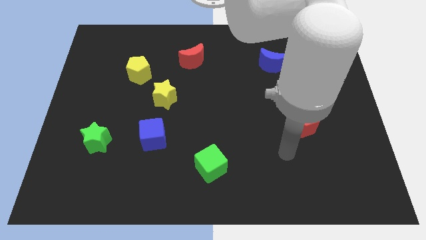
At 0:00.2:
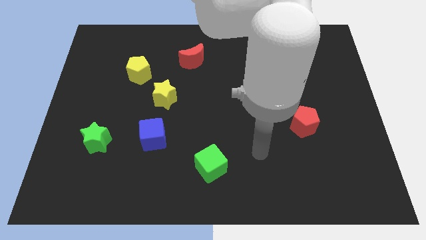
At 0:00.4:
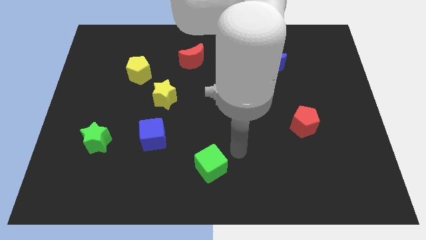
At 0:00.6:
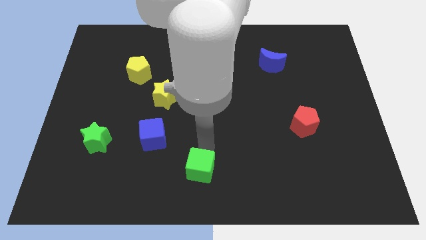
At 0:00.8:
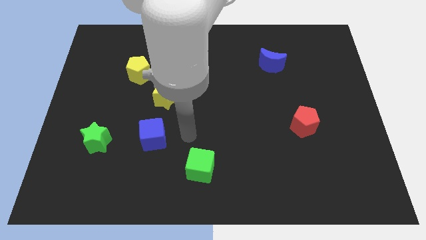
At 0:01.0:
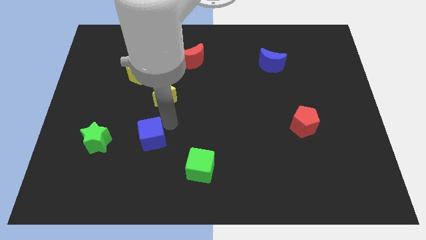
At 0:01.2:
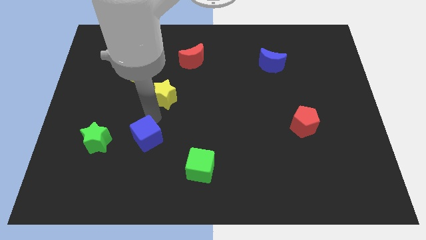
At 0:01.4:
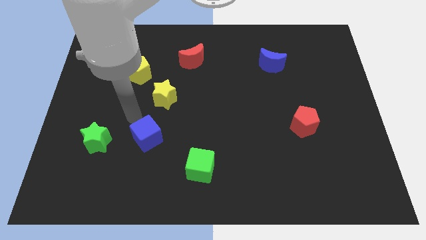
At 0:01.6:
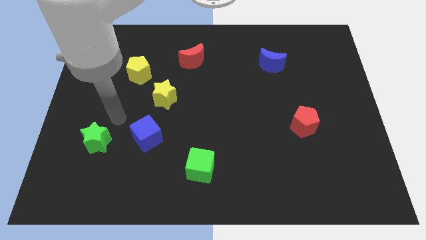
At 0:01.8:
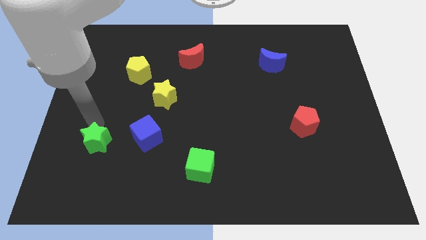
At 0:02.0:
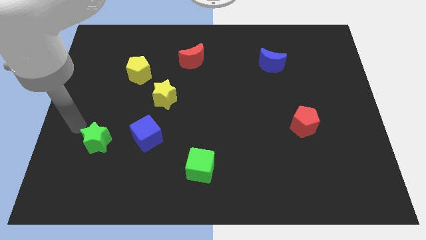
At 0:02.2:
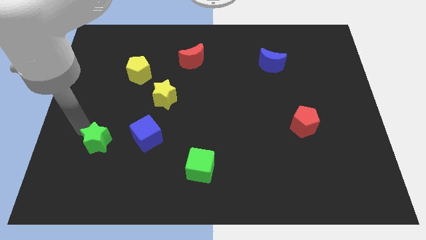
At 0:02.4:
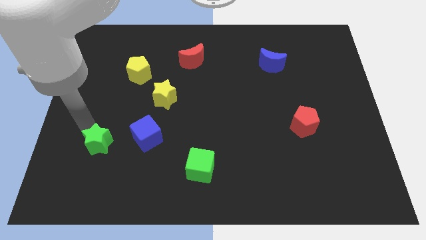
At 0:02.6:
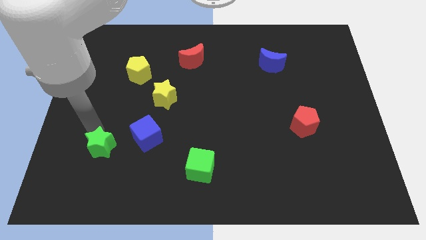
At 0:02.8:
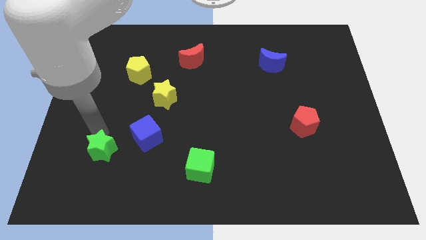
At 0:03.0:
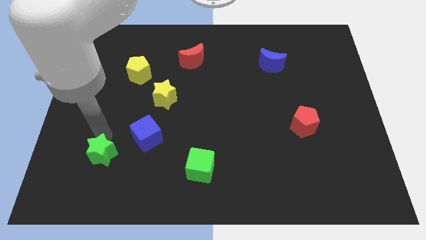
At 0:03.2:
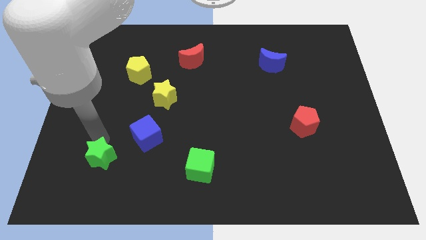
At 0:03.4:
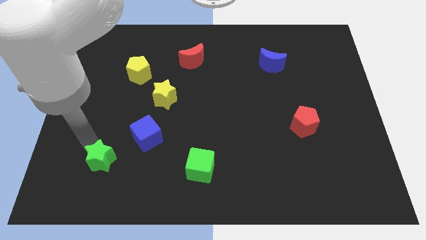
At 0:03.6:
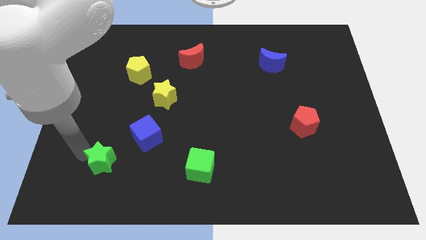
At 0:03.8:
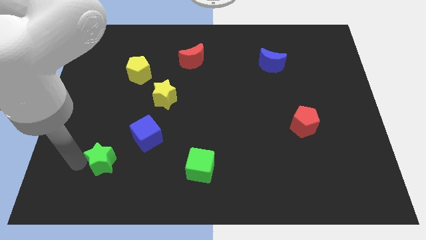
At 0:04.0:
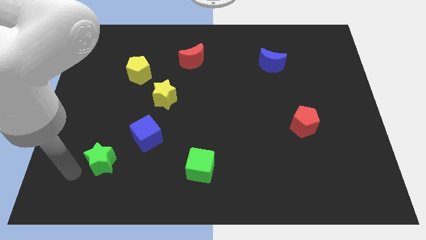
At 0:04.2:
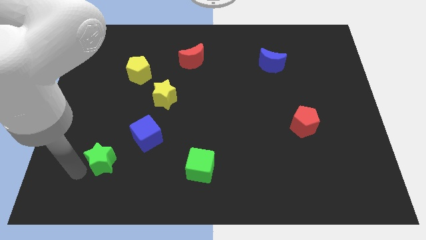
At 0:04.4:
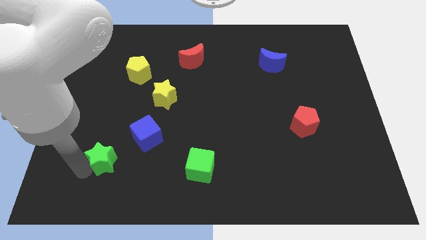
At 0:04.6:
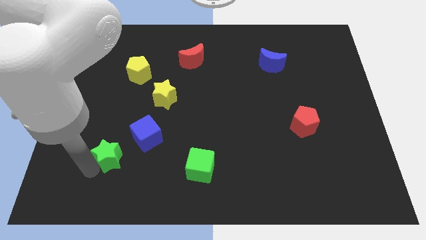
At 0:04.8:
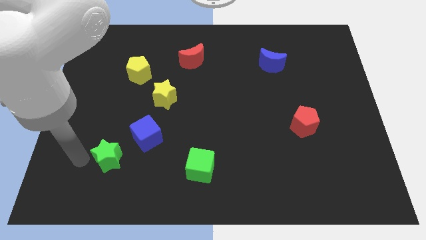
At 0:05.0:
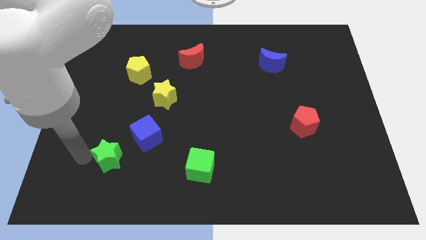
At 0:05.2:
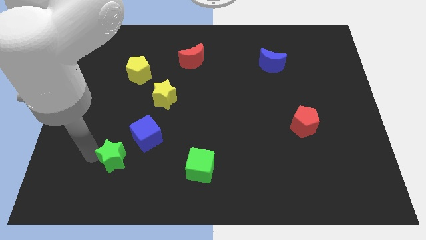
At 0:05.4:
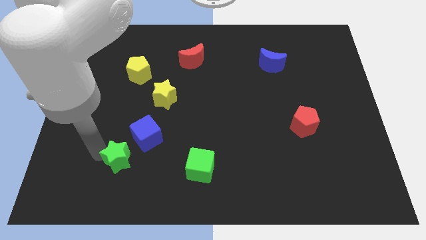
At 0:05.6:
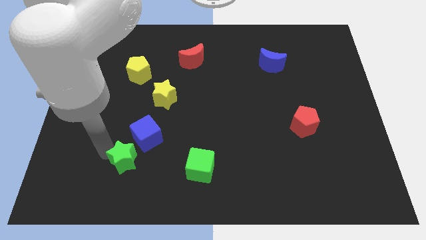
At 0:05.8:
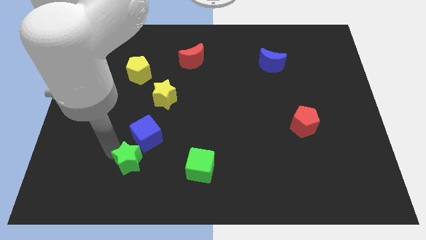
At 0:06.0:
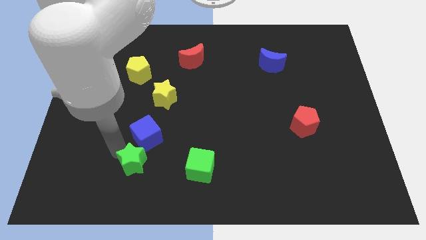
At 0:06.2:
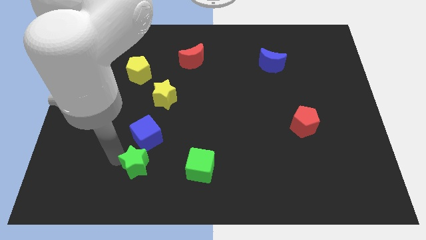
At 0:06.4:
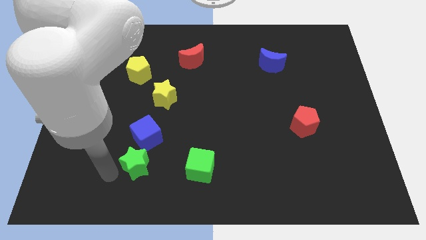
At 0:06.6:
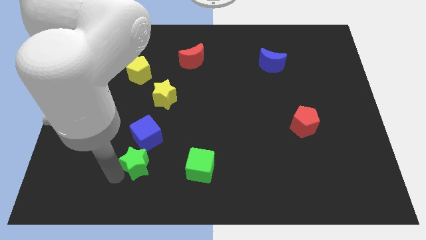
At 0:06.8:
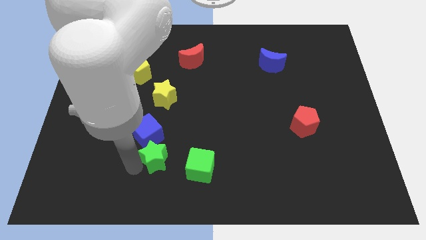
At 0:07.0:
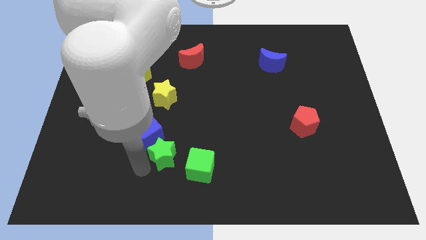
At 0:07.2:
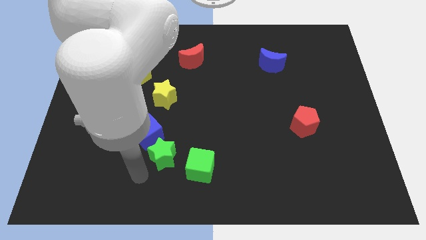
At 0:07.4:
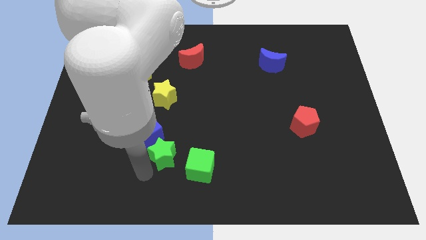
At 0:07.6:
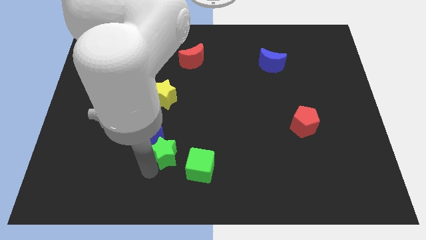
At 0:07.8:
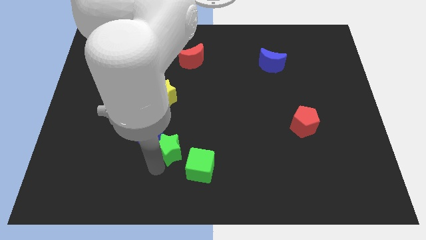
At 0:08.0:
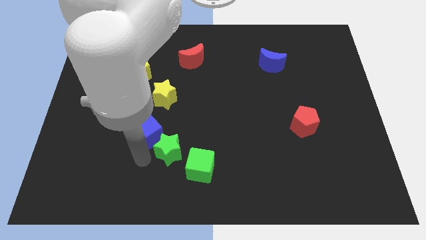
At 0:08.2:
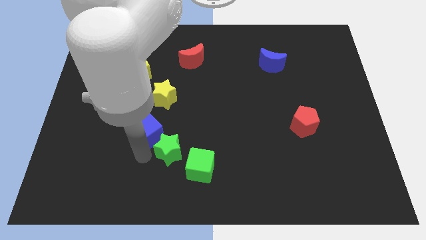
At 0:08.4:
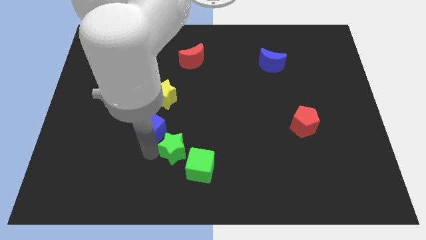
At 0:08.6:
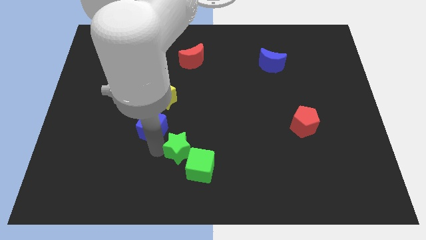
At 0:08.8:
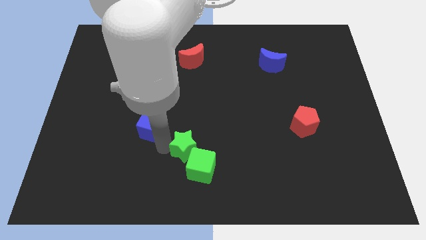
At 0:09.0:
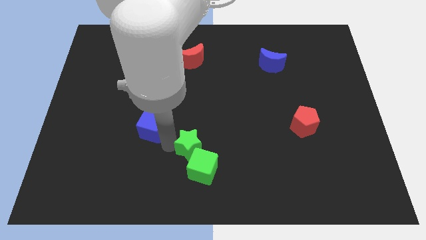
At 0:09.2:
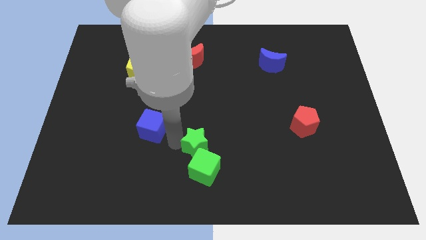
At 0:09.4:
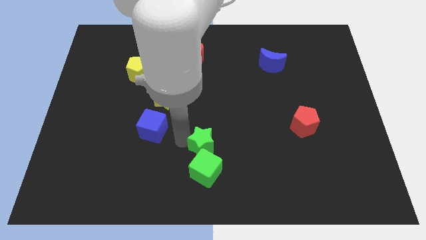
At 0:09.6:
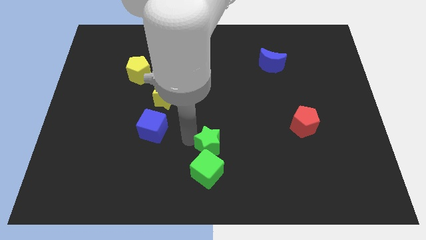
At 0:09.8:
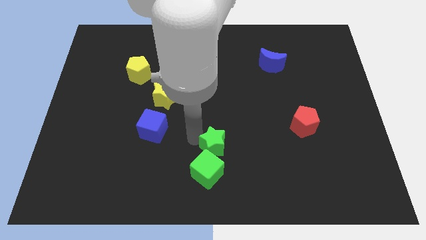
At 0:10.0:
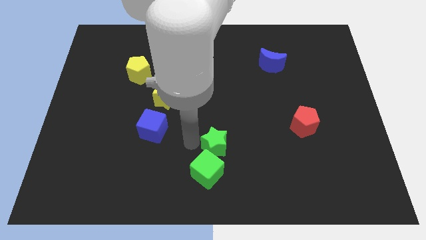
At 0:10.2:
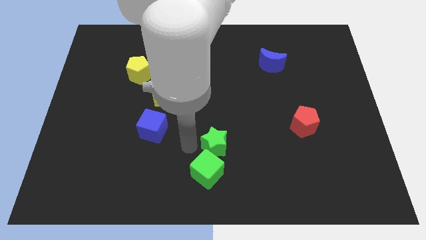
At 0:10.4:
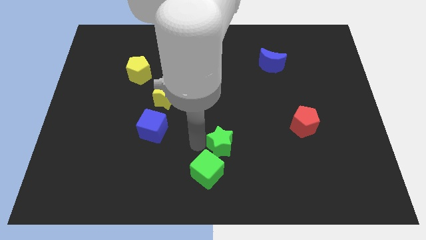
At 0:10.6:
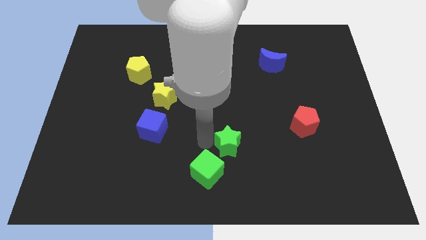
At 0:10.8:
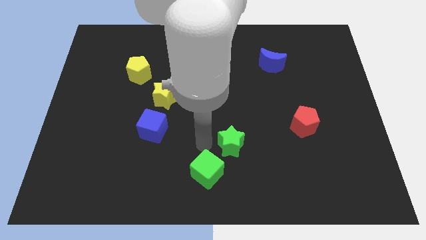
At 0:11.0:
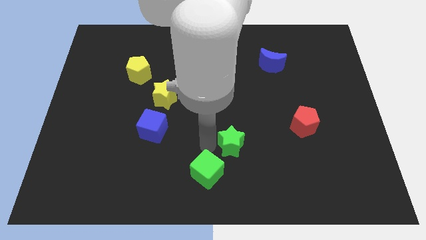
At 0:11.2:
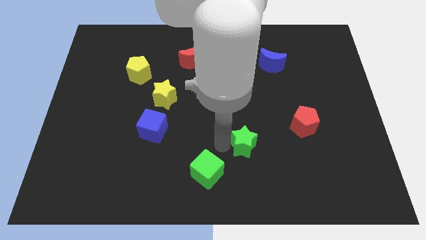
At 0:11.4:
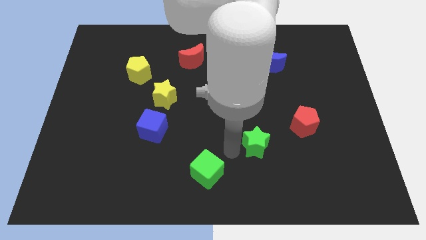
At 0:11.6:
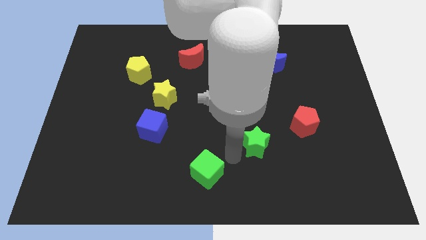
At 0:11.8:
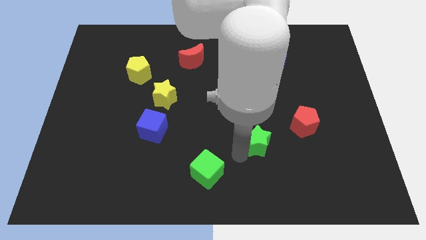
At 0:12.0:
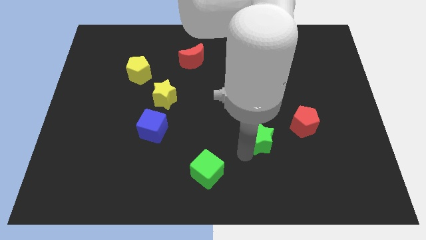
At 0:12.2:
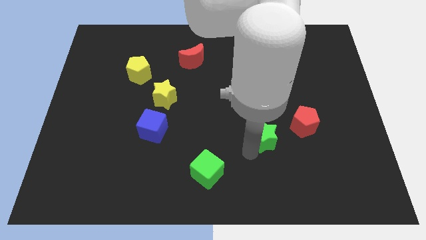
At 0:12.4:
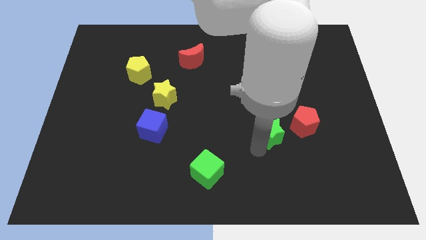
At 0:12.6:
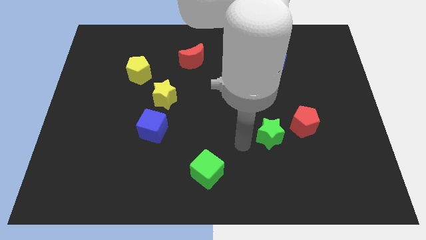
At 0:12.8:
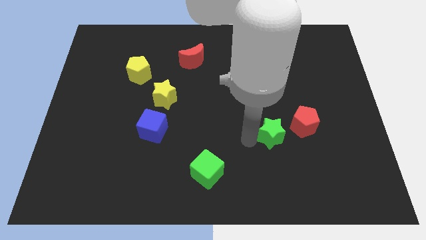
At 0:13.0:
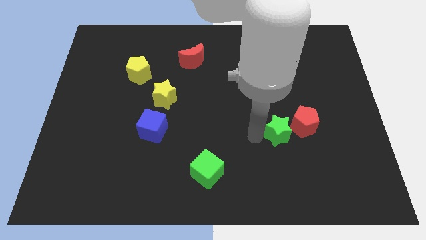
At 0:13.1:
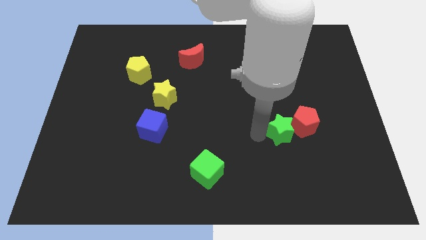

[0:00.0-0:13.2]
put the green star close to the red pentagon

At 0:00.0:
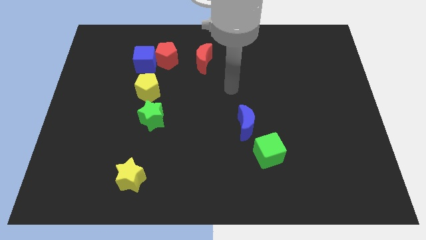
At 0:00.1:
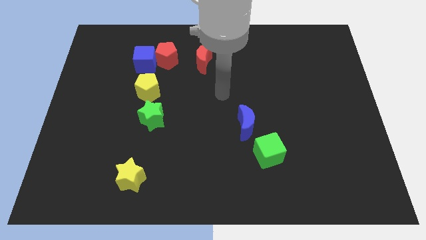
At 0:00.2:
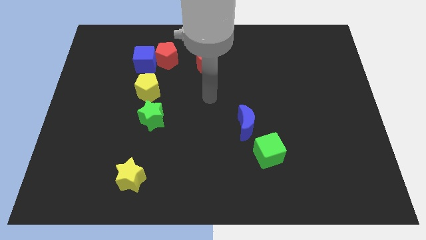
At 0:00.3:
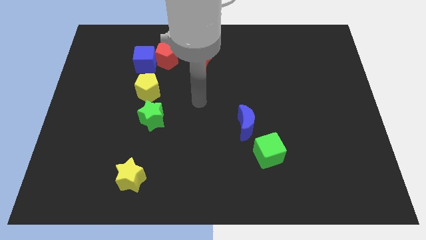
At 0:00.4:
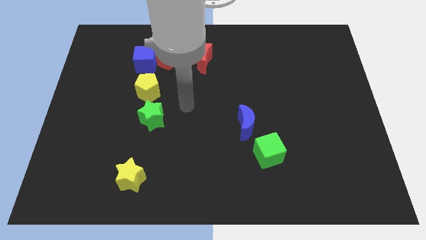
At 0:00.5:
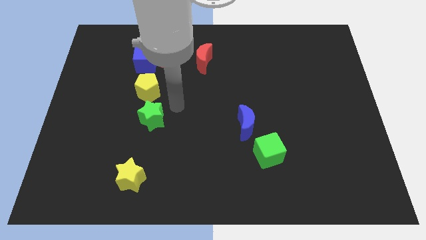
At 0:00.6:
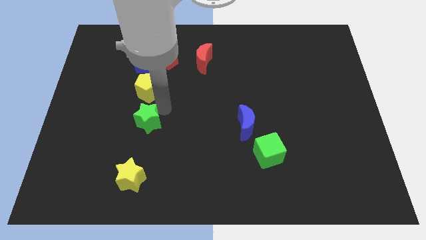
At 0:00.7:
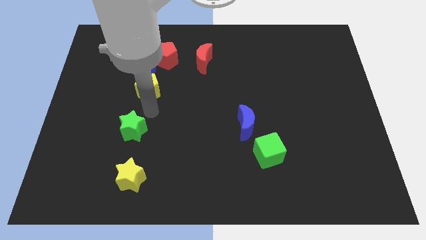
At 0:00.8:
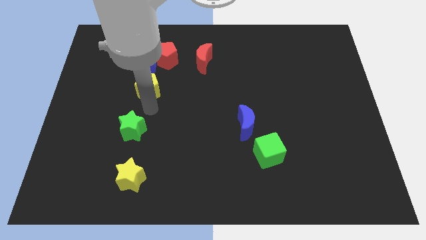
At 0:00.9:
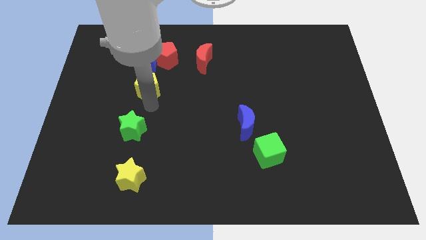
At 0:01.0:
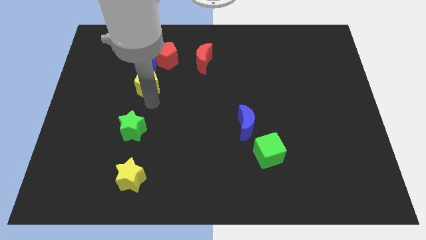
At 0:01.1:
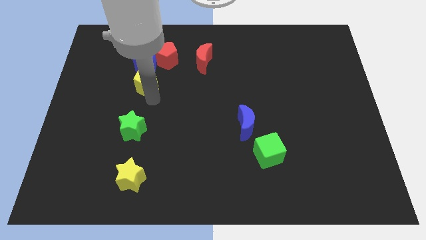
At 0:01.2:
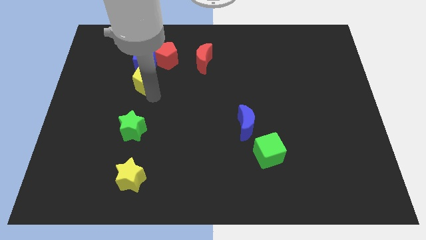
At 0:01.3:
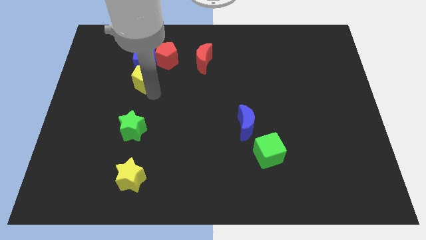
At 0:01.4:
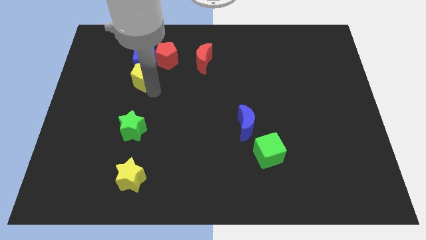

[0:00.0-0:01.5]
slide the yellow pentagon to the blue cube
